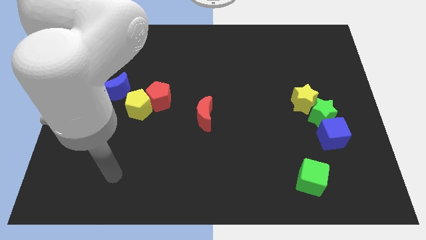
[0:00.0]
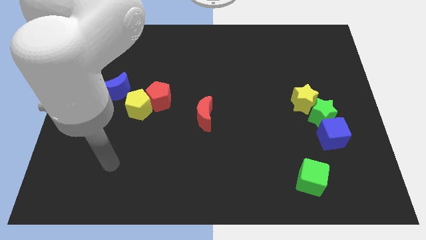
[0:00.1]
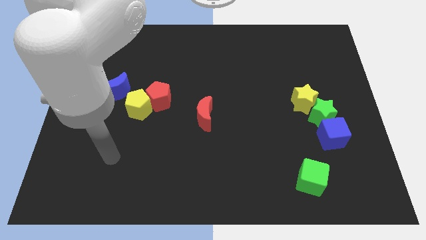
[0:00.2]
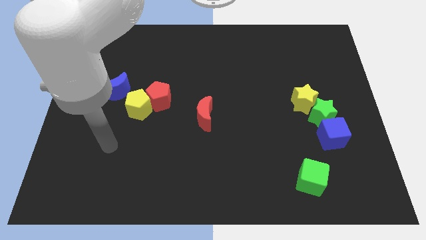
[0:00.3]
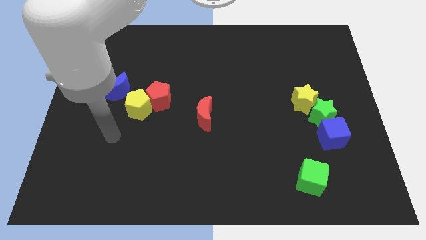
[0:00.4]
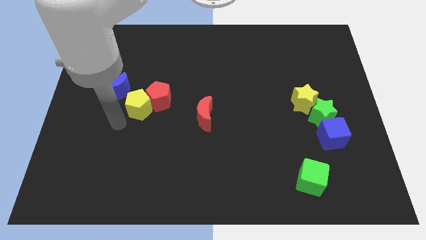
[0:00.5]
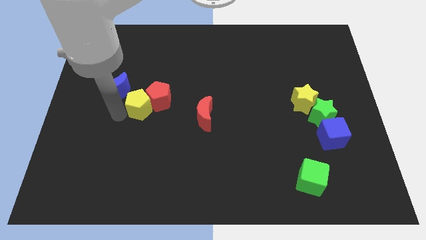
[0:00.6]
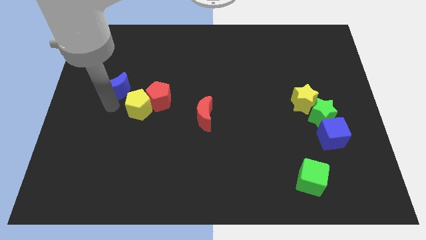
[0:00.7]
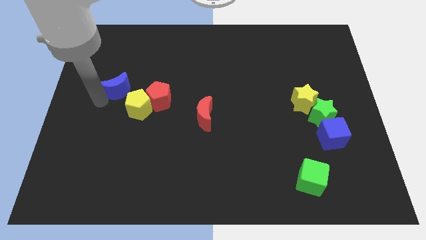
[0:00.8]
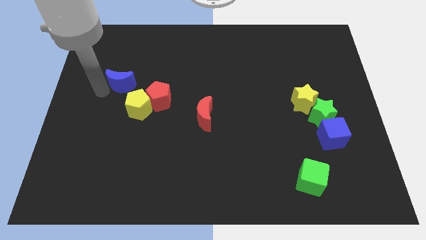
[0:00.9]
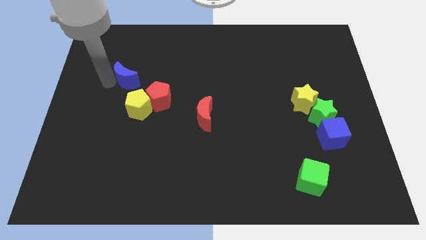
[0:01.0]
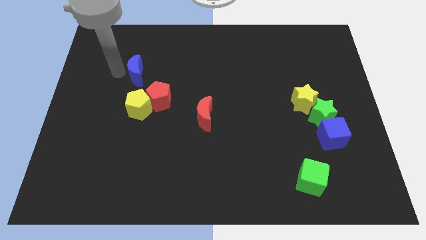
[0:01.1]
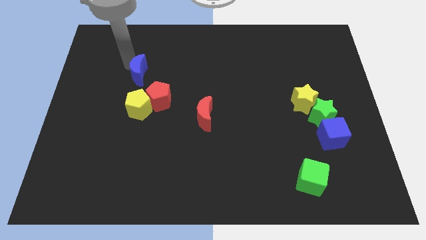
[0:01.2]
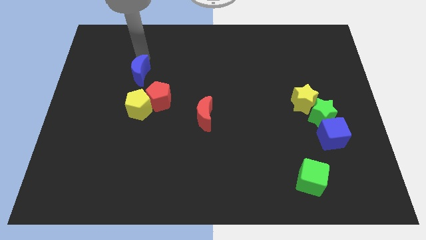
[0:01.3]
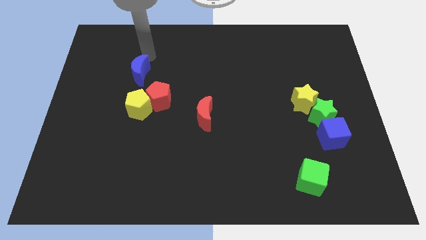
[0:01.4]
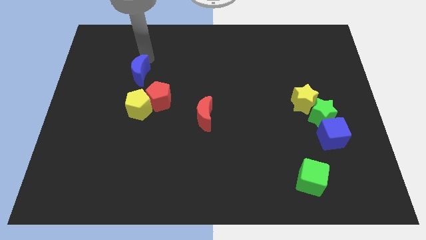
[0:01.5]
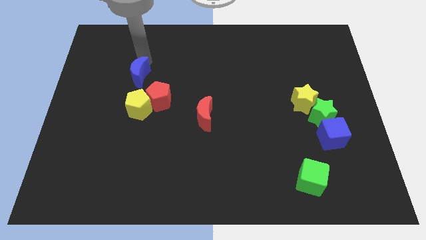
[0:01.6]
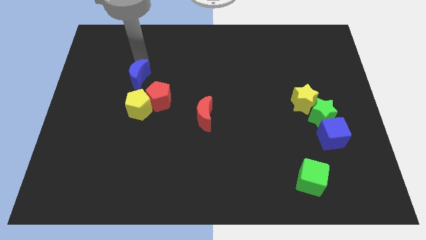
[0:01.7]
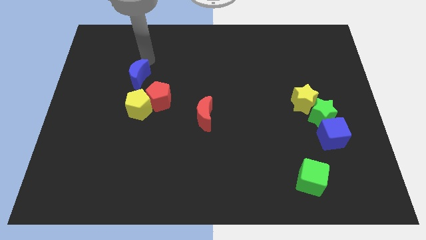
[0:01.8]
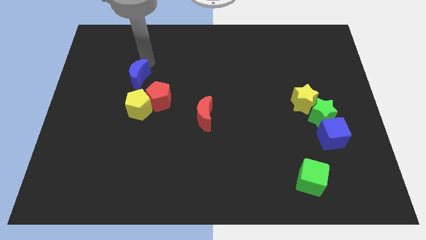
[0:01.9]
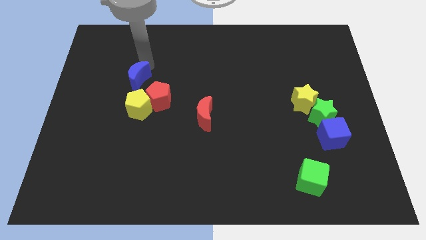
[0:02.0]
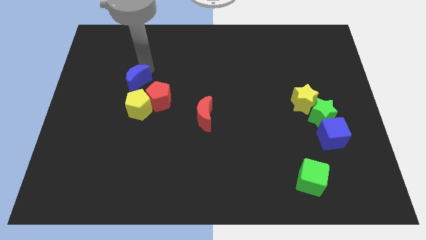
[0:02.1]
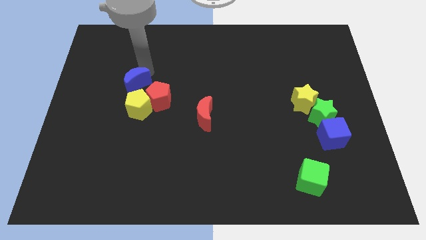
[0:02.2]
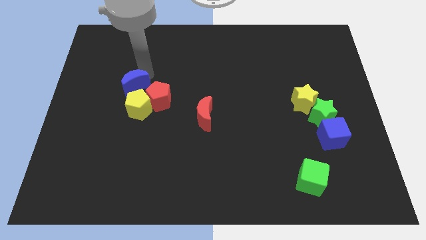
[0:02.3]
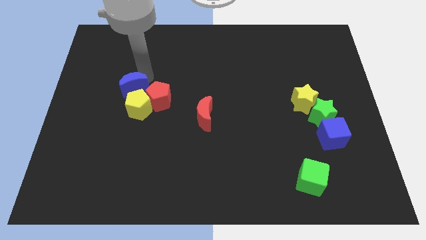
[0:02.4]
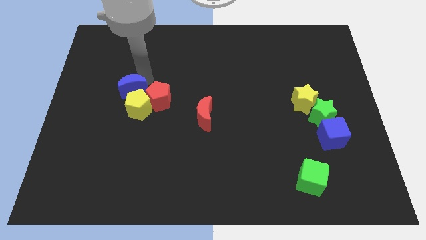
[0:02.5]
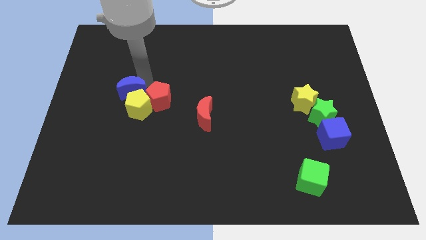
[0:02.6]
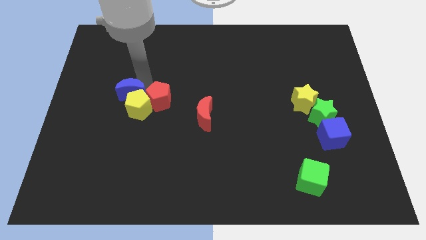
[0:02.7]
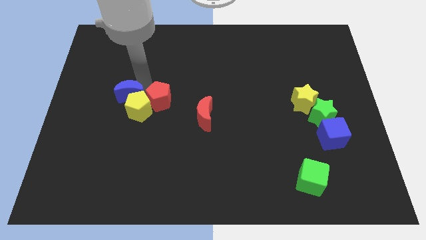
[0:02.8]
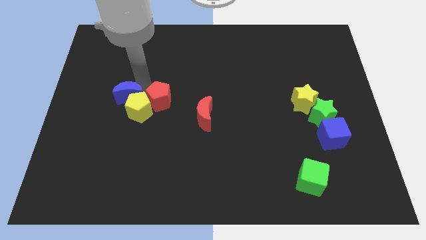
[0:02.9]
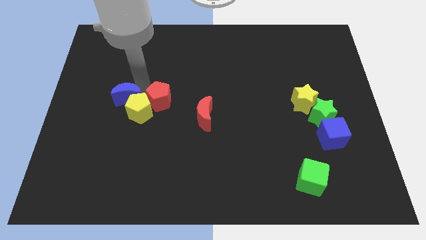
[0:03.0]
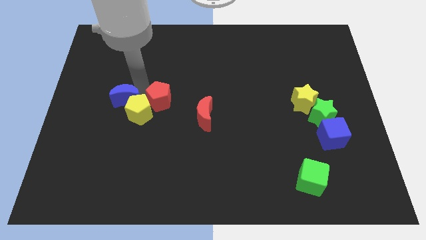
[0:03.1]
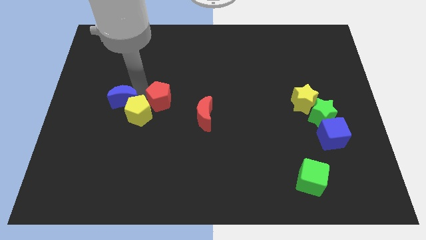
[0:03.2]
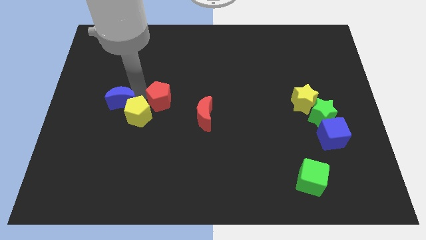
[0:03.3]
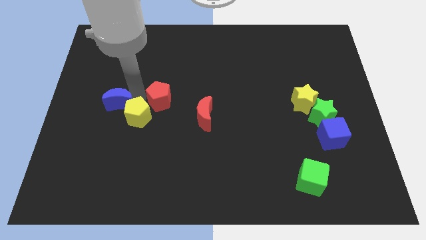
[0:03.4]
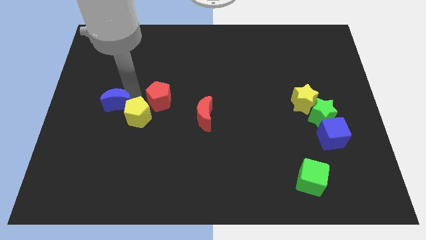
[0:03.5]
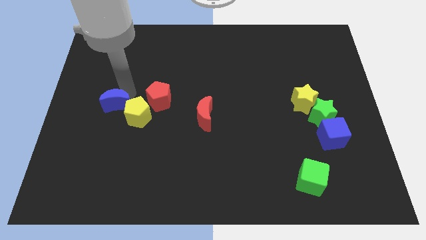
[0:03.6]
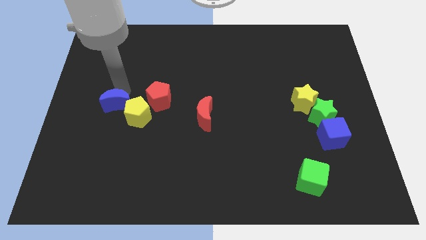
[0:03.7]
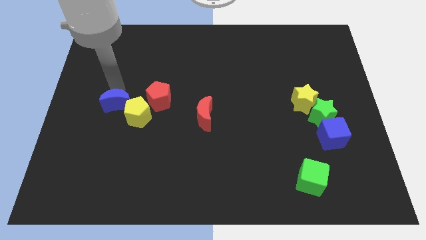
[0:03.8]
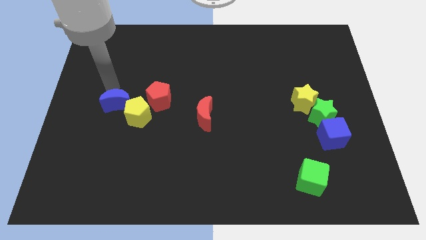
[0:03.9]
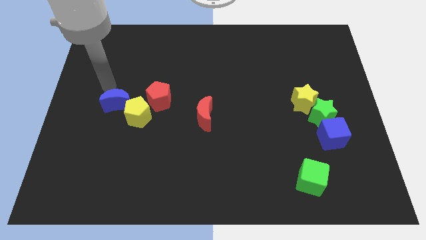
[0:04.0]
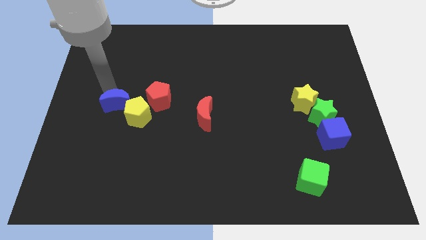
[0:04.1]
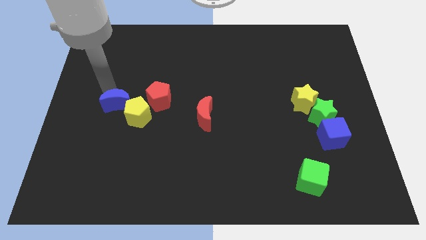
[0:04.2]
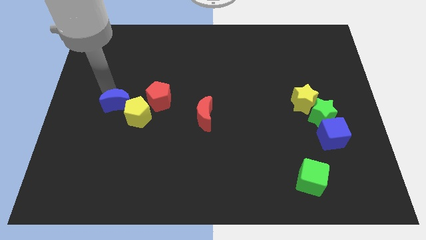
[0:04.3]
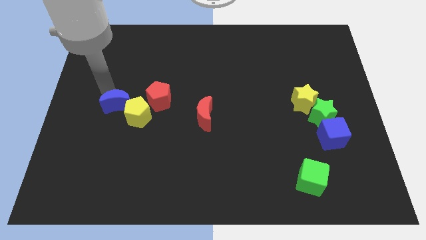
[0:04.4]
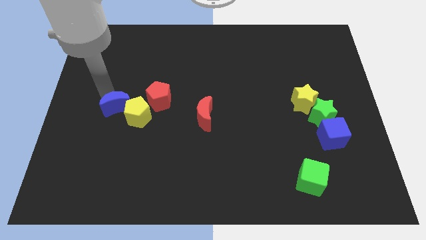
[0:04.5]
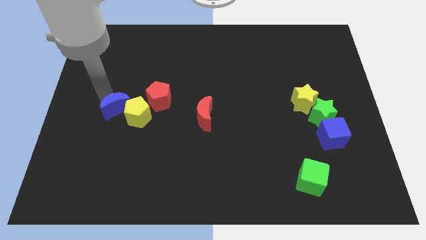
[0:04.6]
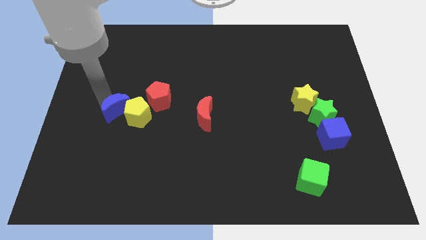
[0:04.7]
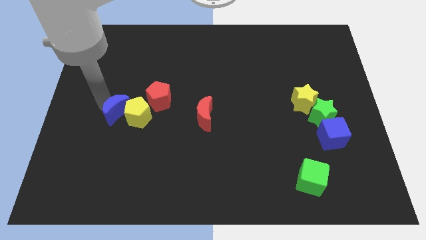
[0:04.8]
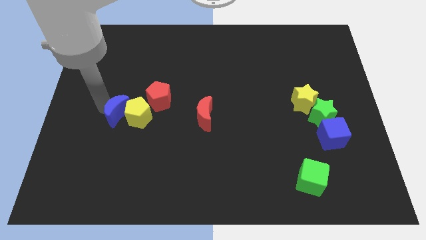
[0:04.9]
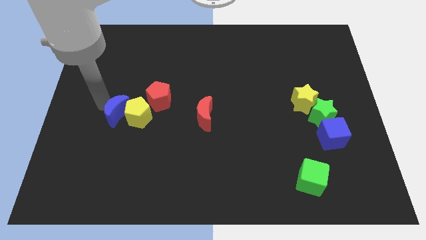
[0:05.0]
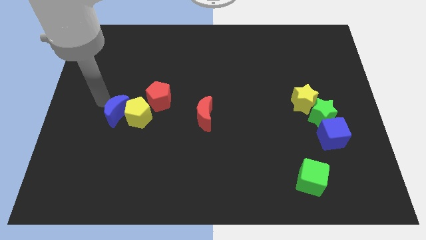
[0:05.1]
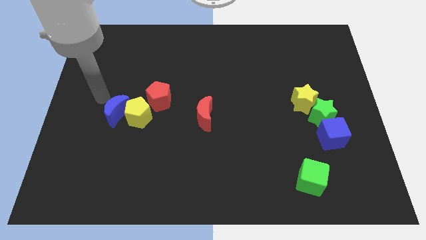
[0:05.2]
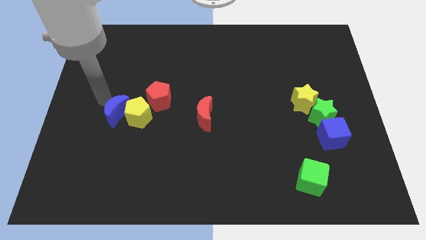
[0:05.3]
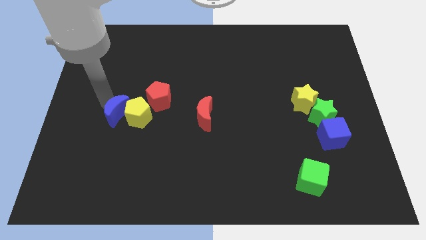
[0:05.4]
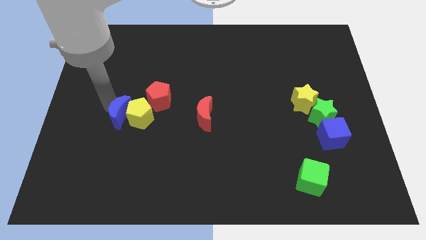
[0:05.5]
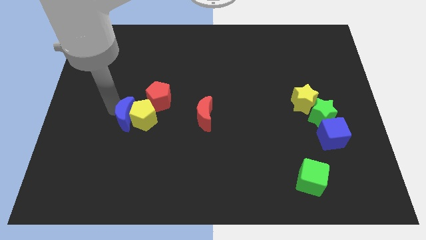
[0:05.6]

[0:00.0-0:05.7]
move the blue moon diagonally down and to the right a little

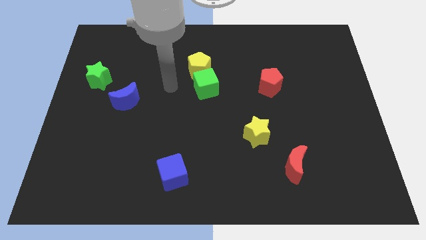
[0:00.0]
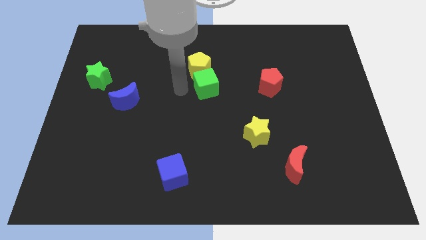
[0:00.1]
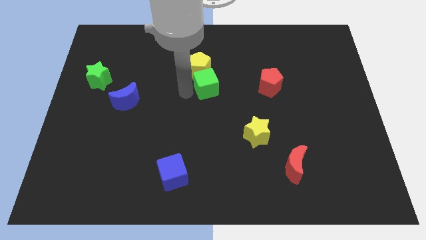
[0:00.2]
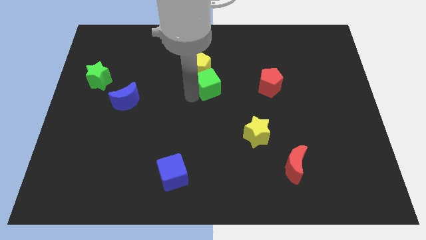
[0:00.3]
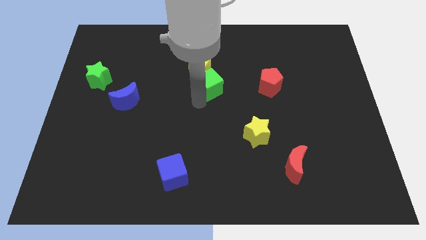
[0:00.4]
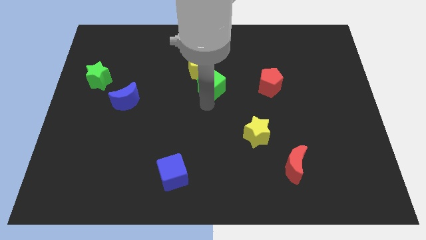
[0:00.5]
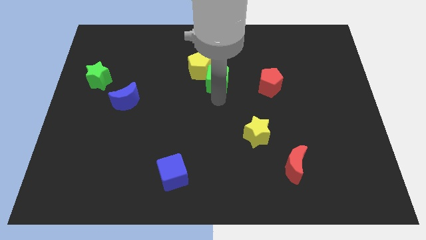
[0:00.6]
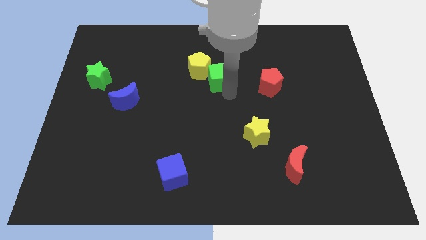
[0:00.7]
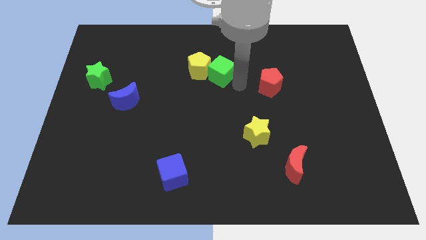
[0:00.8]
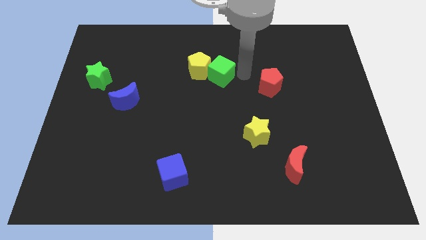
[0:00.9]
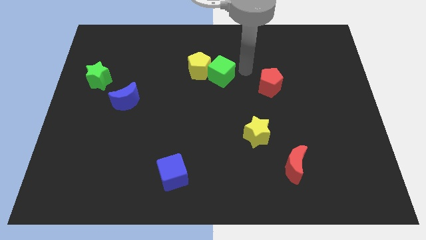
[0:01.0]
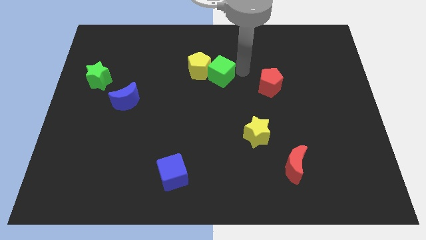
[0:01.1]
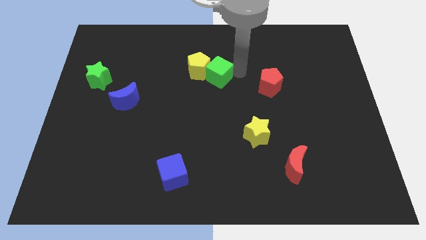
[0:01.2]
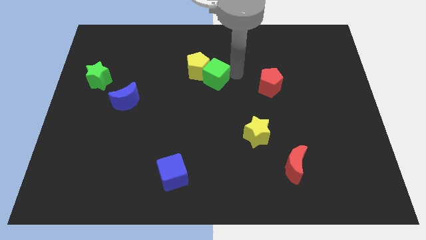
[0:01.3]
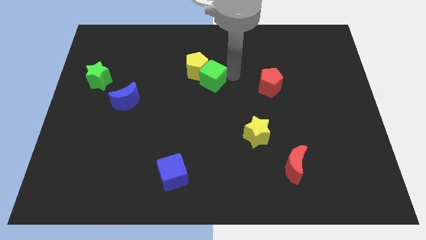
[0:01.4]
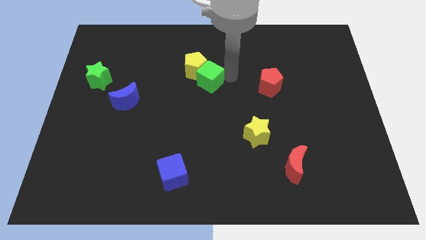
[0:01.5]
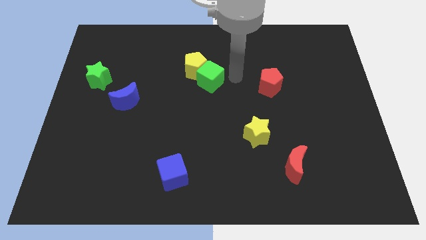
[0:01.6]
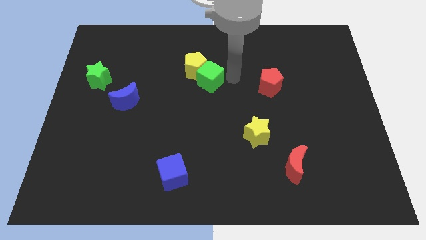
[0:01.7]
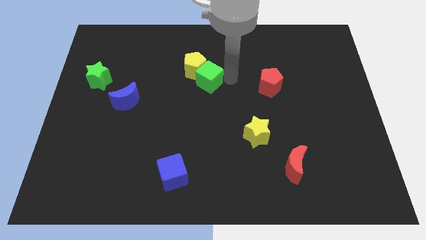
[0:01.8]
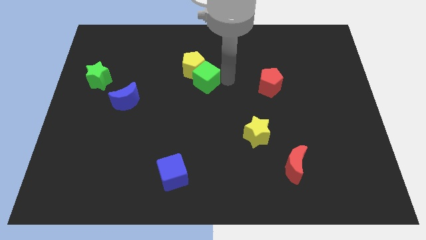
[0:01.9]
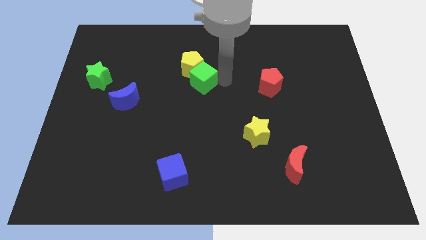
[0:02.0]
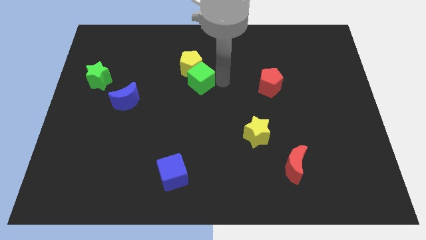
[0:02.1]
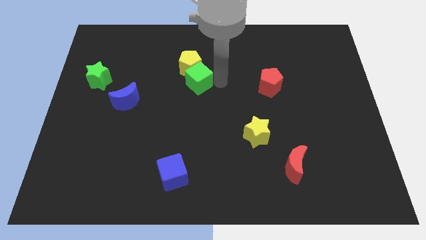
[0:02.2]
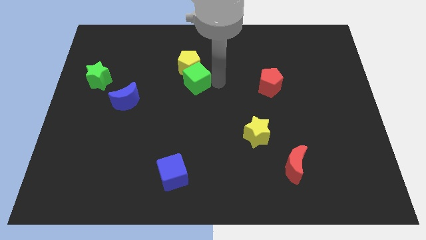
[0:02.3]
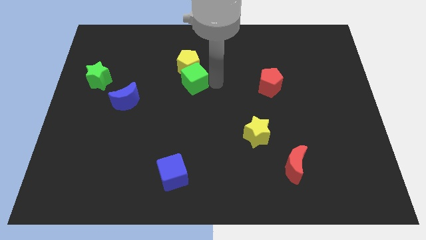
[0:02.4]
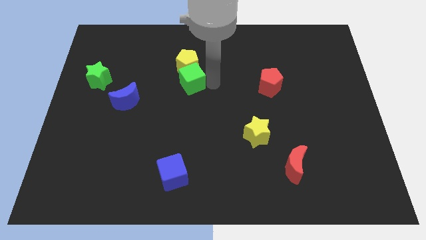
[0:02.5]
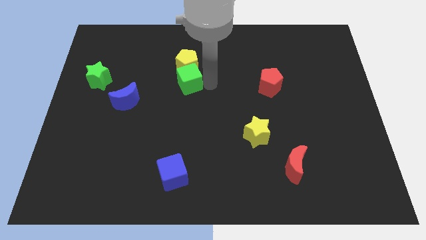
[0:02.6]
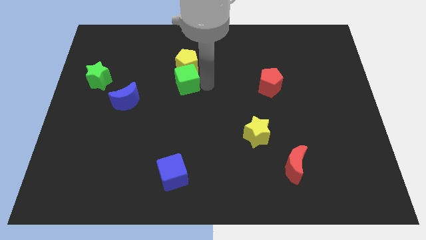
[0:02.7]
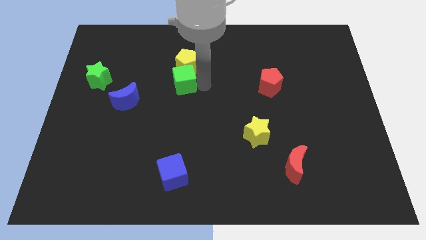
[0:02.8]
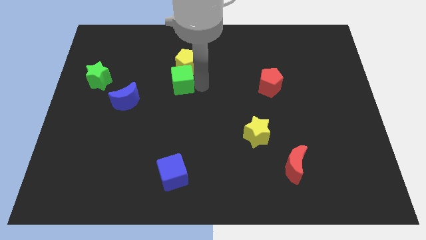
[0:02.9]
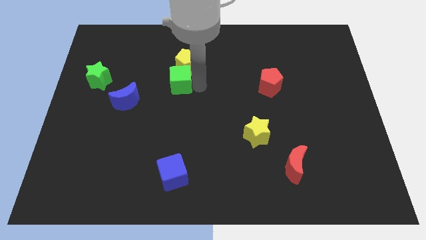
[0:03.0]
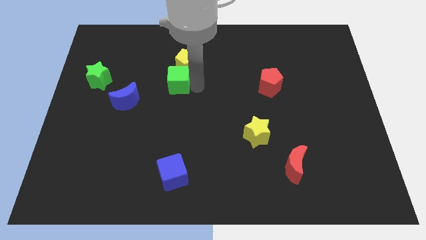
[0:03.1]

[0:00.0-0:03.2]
push the green cube to the left somewhat
